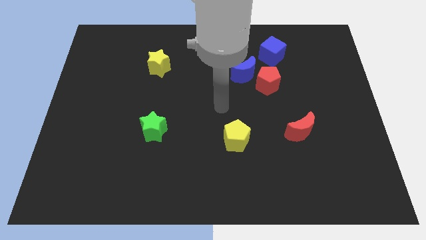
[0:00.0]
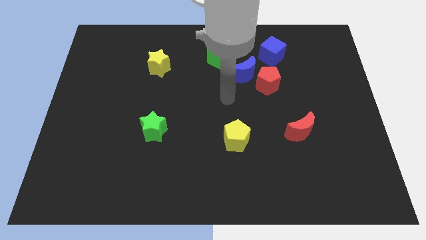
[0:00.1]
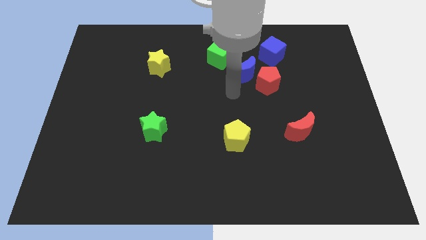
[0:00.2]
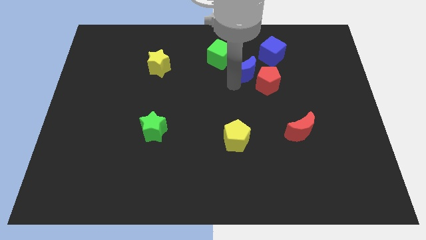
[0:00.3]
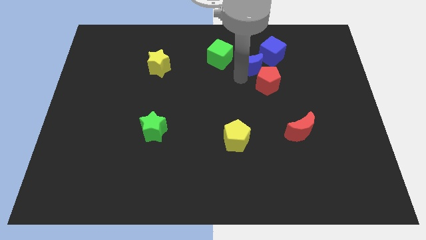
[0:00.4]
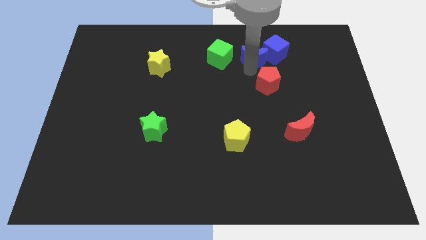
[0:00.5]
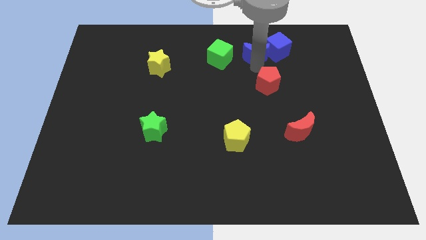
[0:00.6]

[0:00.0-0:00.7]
move the red pentagon away from the blue moon

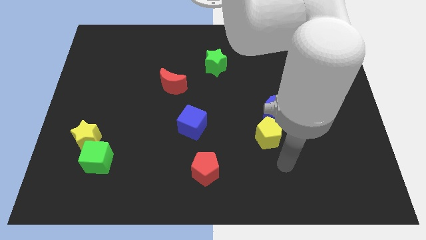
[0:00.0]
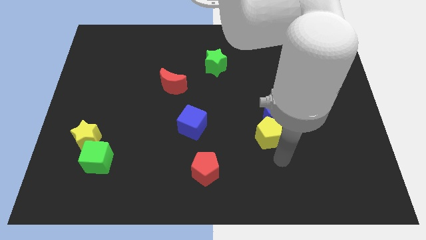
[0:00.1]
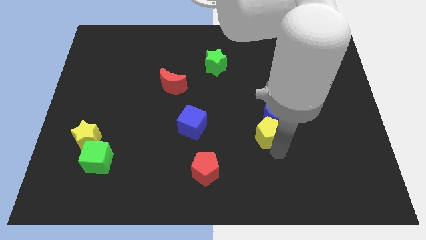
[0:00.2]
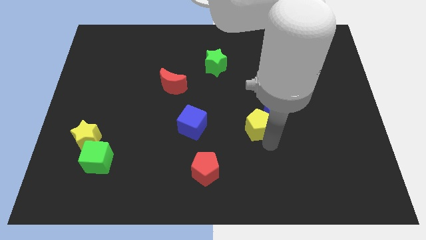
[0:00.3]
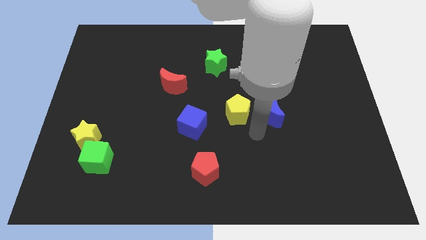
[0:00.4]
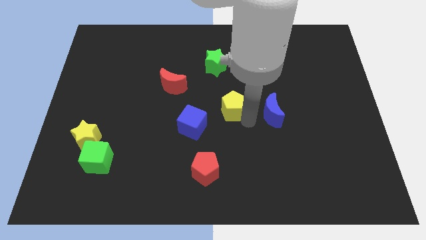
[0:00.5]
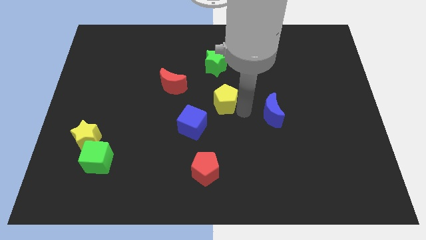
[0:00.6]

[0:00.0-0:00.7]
pull the blue moon apart from the yellow pentagon

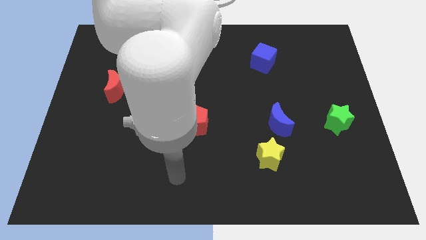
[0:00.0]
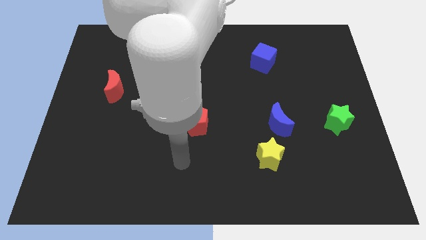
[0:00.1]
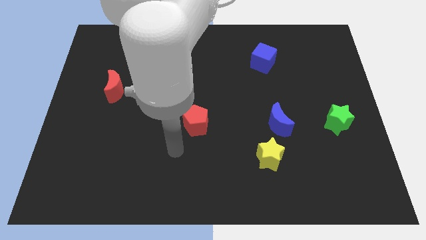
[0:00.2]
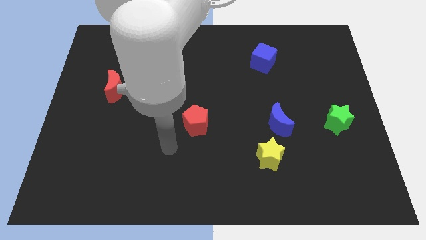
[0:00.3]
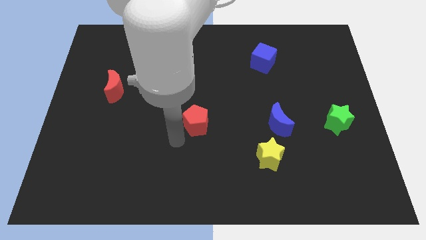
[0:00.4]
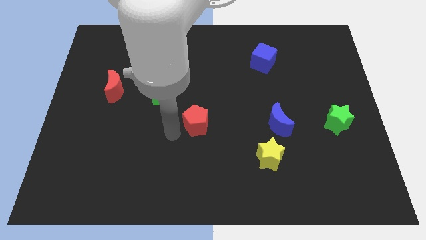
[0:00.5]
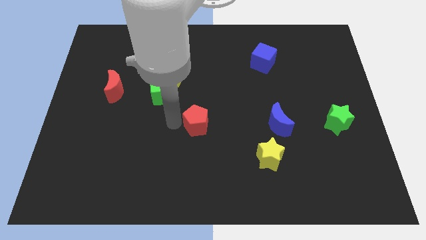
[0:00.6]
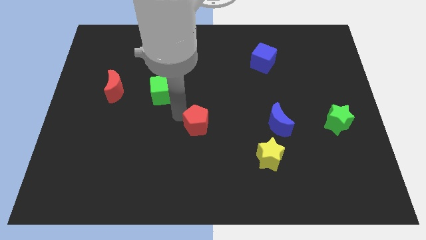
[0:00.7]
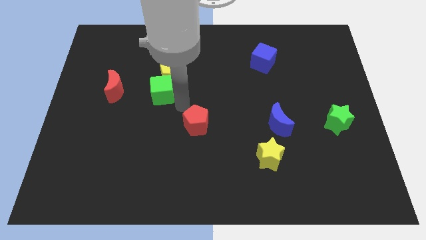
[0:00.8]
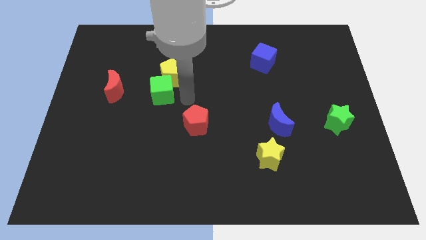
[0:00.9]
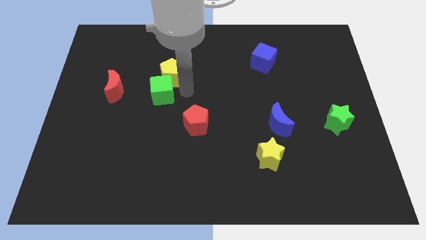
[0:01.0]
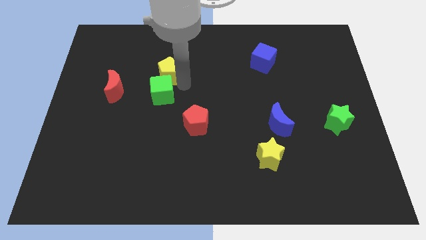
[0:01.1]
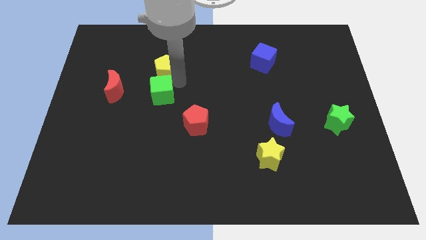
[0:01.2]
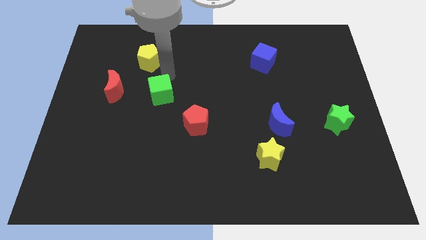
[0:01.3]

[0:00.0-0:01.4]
pull the green cube apart from the yellow pentagon

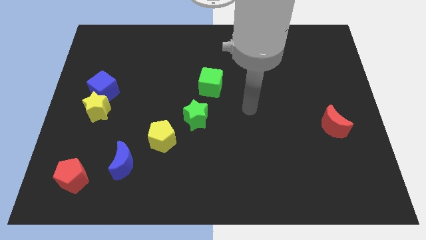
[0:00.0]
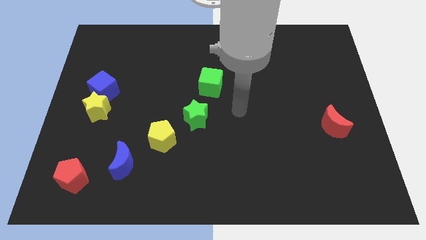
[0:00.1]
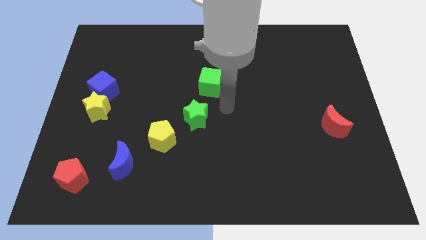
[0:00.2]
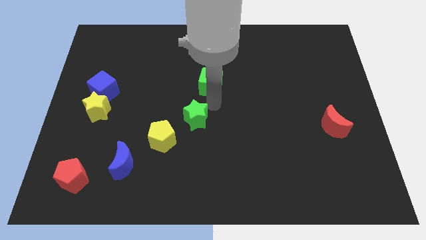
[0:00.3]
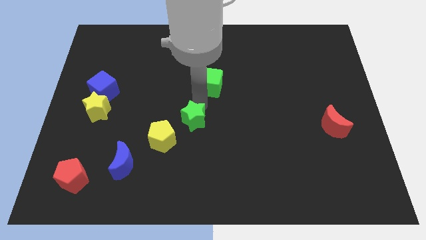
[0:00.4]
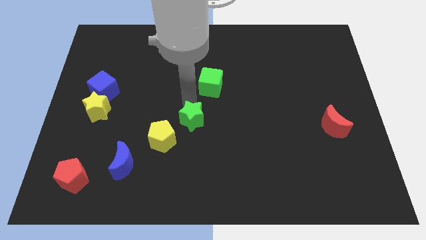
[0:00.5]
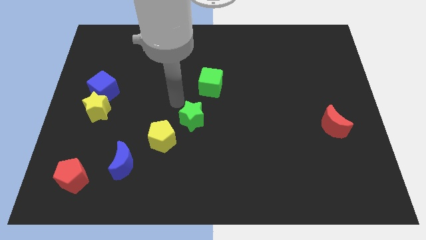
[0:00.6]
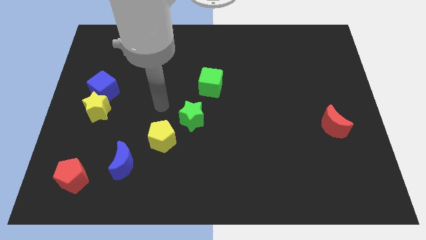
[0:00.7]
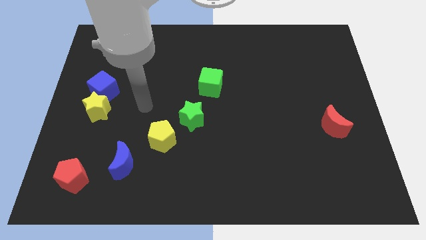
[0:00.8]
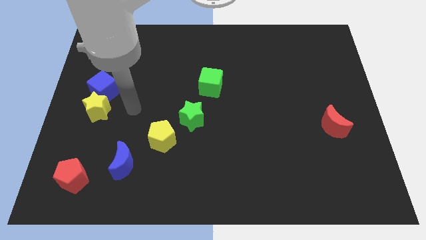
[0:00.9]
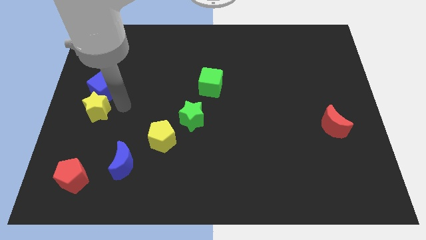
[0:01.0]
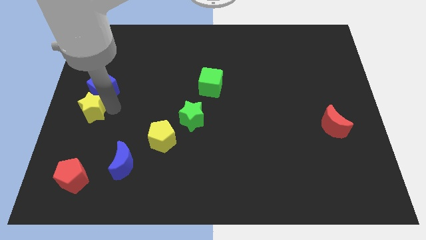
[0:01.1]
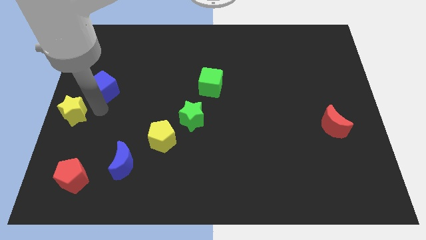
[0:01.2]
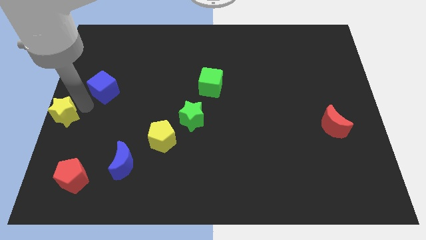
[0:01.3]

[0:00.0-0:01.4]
move the blue cube away from the yellow star

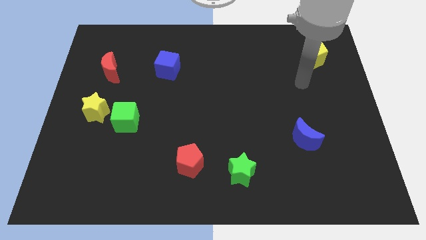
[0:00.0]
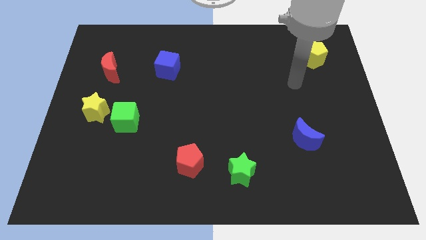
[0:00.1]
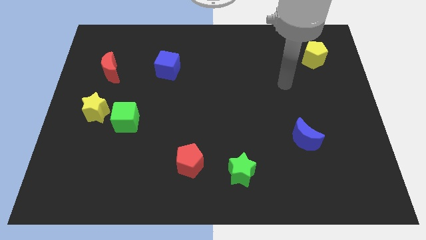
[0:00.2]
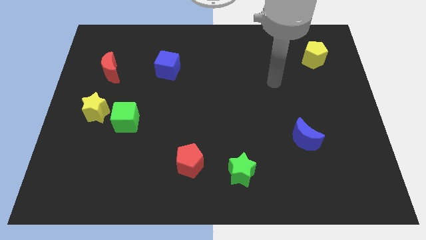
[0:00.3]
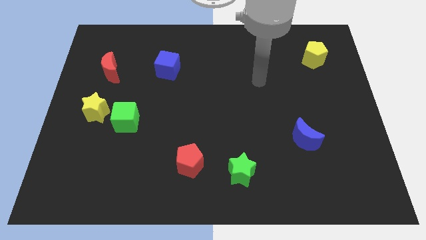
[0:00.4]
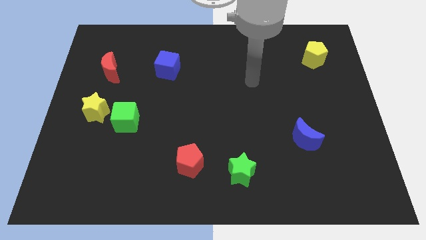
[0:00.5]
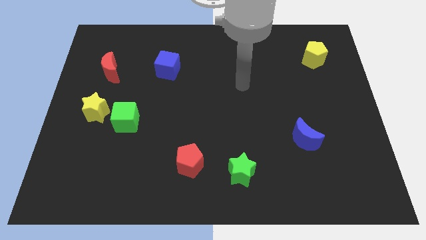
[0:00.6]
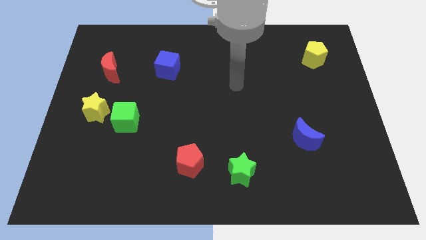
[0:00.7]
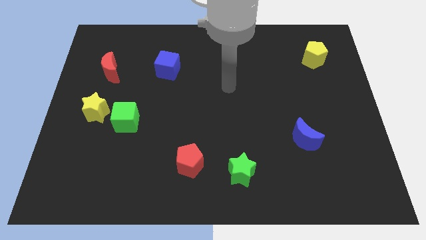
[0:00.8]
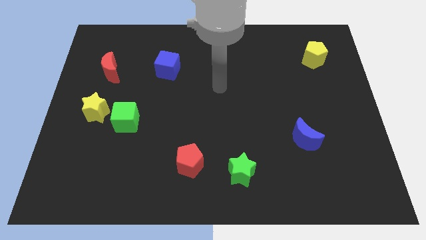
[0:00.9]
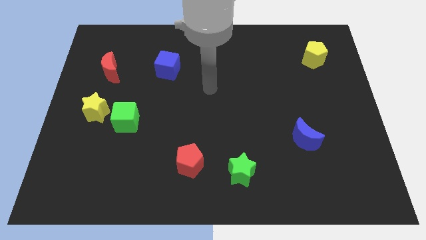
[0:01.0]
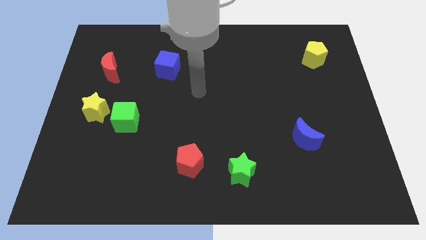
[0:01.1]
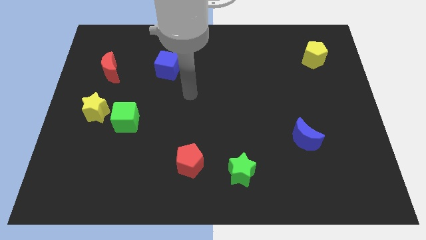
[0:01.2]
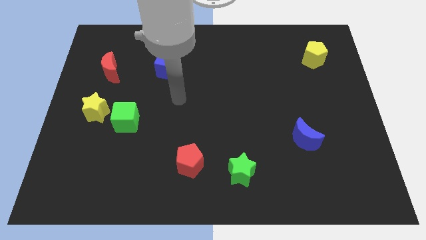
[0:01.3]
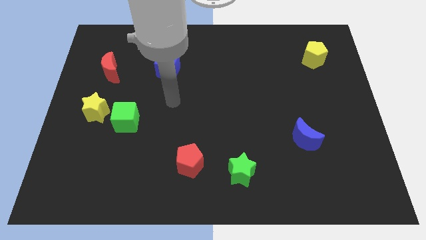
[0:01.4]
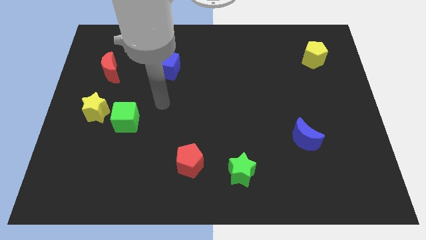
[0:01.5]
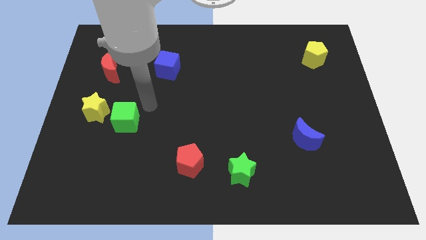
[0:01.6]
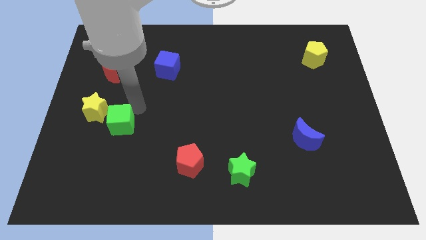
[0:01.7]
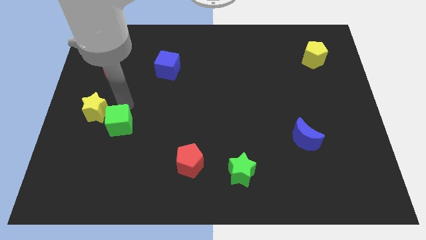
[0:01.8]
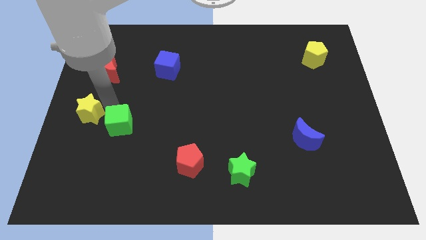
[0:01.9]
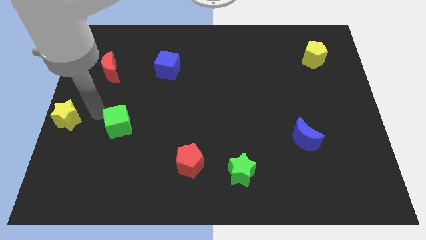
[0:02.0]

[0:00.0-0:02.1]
pull the green cube apart from the yellow star

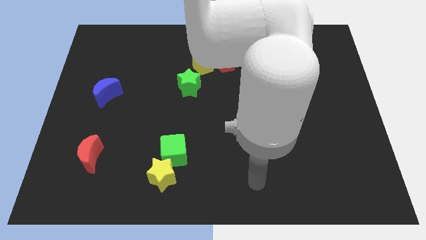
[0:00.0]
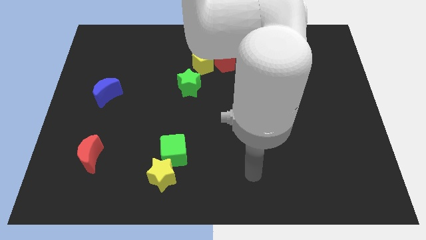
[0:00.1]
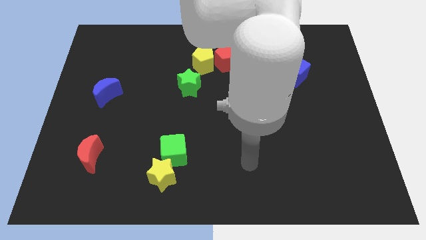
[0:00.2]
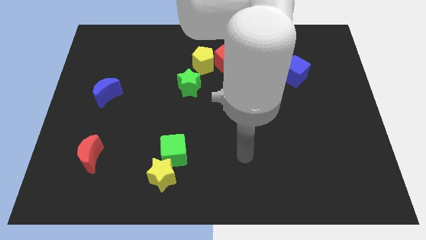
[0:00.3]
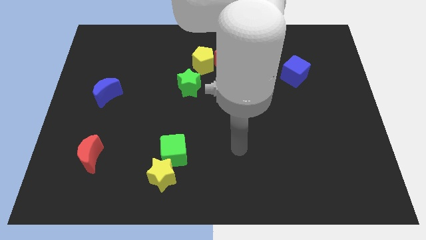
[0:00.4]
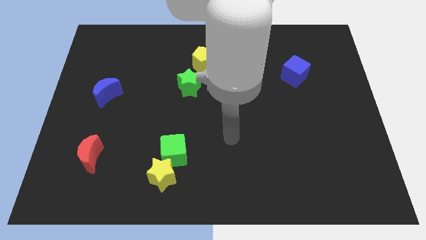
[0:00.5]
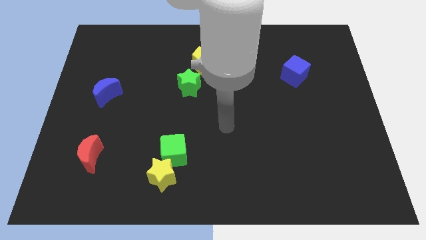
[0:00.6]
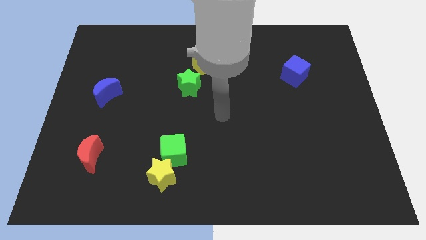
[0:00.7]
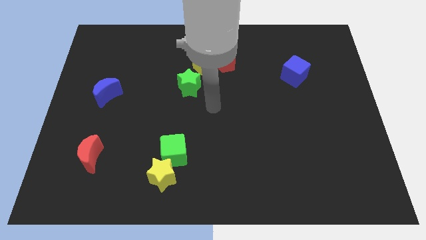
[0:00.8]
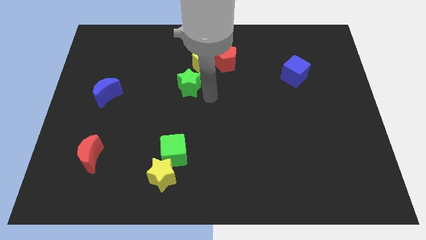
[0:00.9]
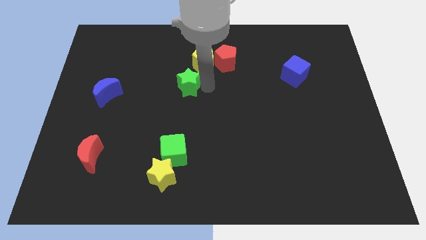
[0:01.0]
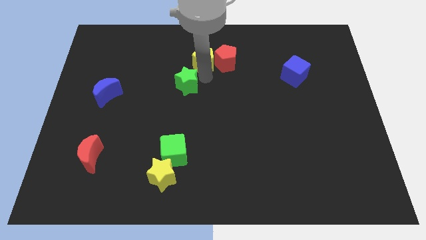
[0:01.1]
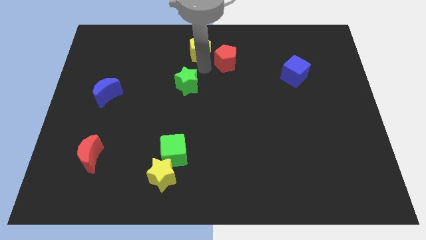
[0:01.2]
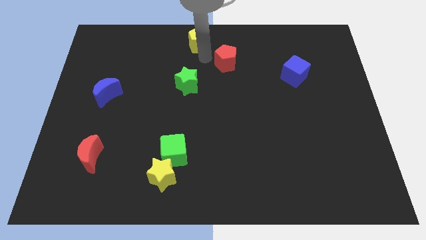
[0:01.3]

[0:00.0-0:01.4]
move the red pentagon away from the yellow pentagon

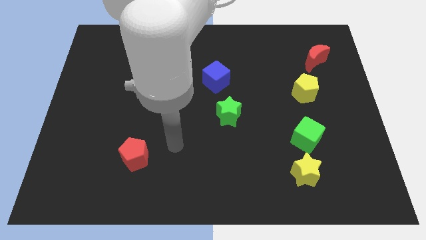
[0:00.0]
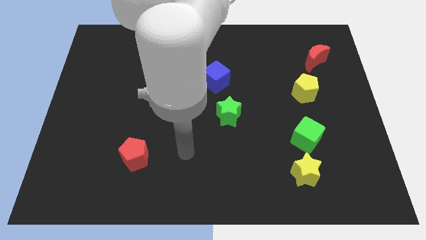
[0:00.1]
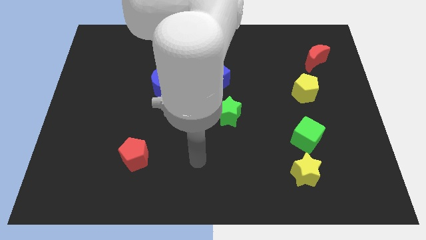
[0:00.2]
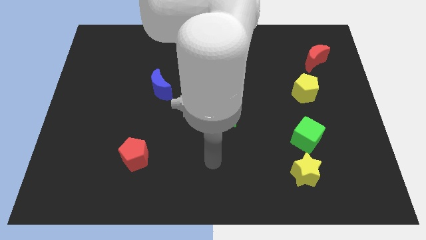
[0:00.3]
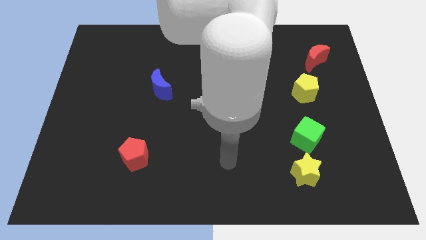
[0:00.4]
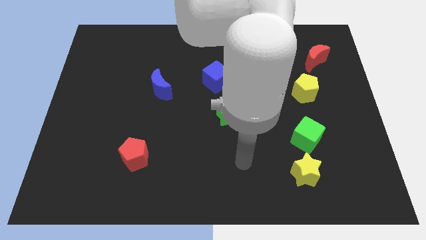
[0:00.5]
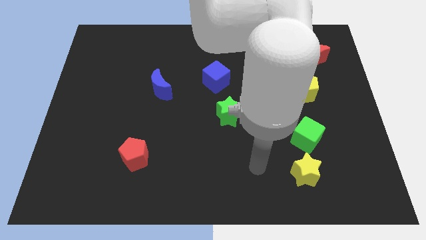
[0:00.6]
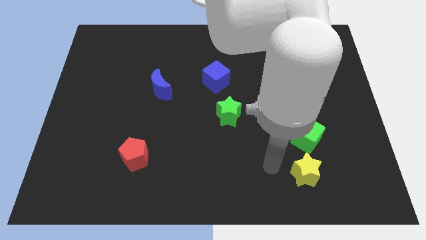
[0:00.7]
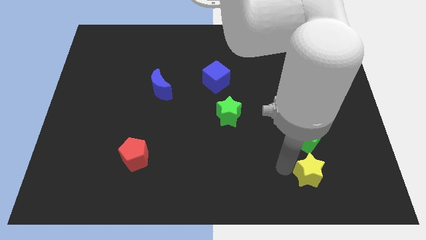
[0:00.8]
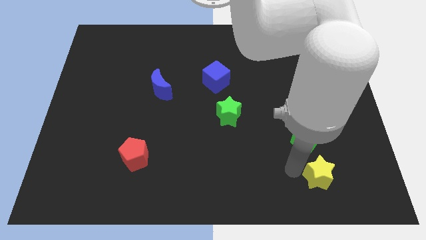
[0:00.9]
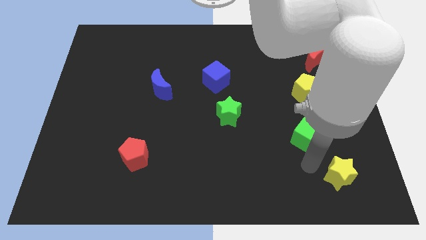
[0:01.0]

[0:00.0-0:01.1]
move the green cube away from the yellow star

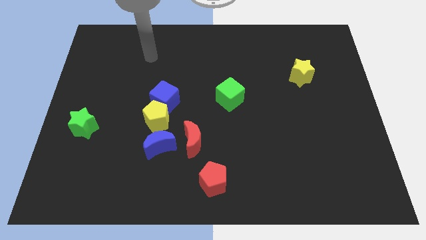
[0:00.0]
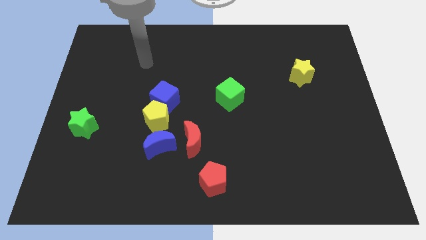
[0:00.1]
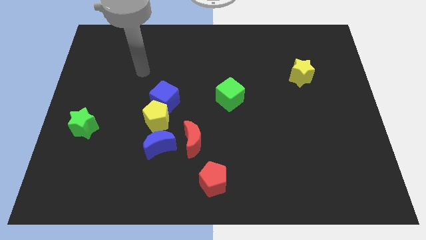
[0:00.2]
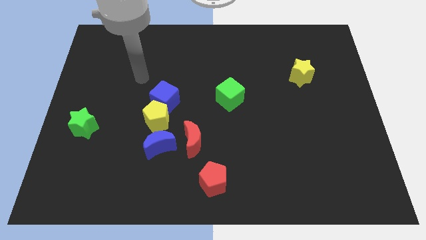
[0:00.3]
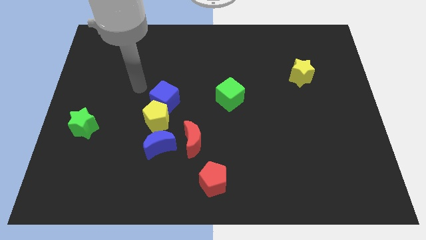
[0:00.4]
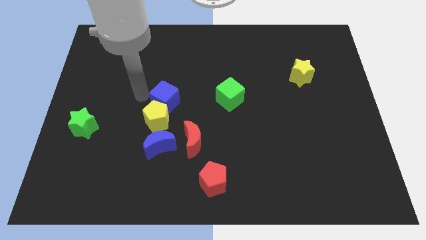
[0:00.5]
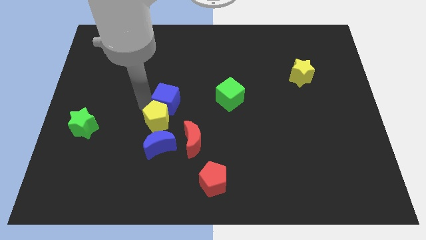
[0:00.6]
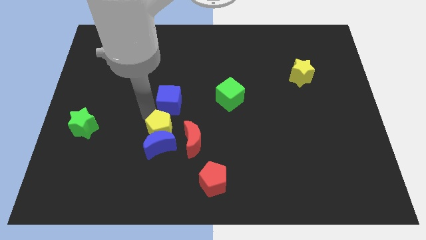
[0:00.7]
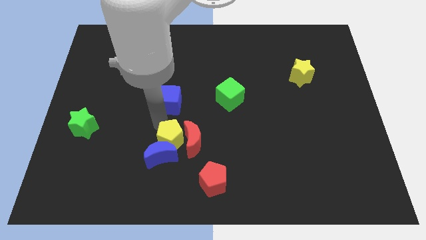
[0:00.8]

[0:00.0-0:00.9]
pull the blue cube apart from the yellow pentagon
